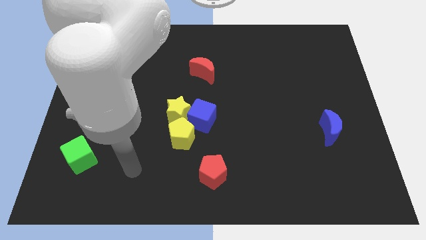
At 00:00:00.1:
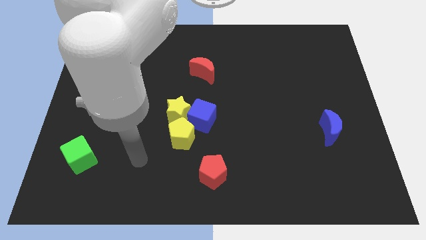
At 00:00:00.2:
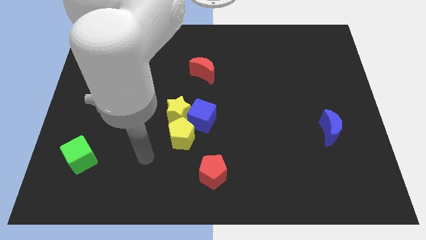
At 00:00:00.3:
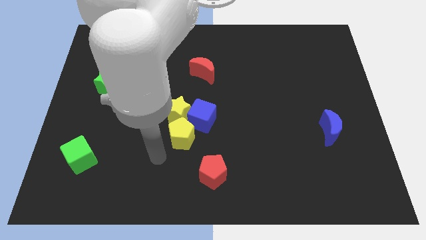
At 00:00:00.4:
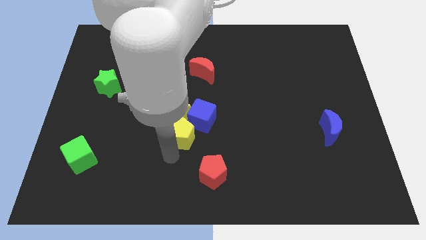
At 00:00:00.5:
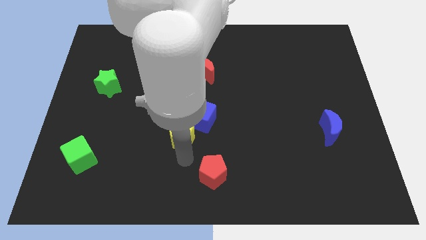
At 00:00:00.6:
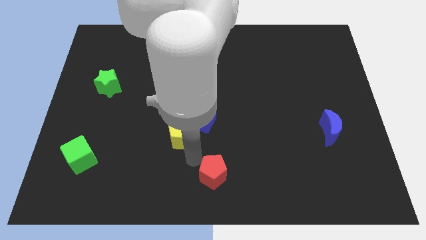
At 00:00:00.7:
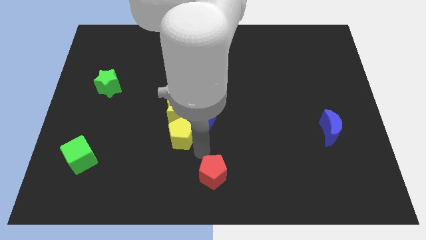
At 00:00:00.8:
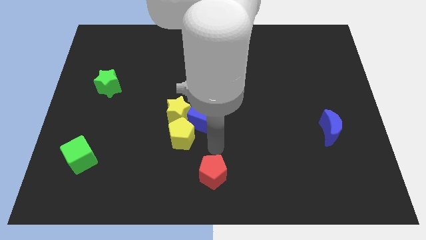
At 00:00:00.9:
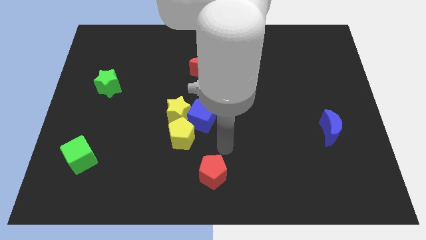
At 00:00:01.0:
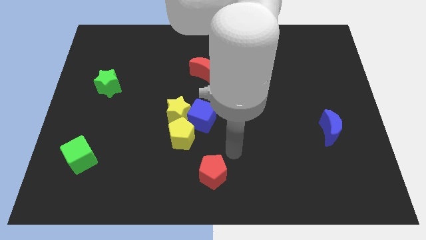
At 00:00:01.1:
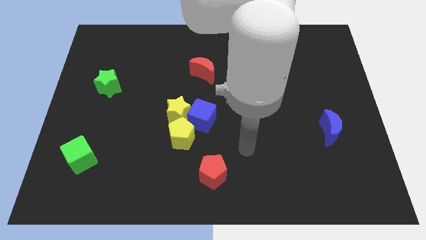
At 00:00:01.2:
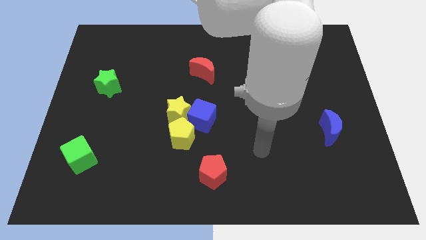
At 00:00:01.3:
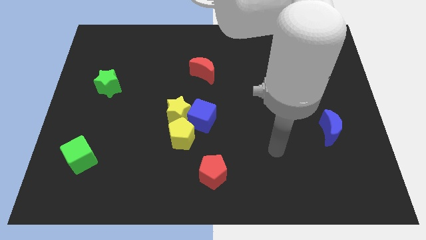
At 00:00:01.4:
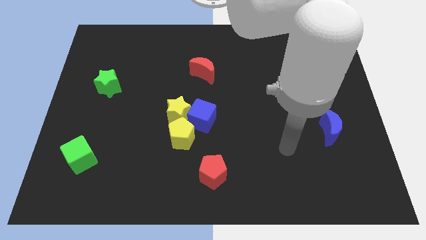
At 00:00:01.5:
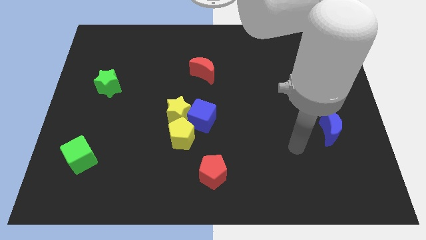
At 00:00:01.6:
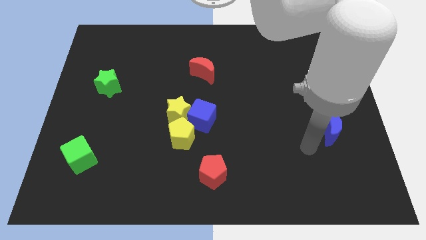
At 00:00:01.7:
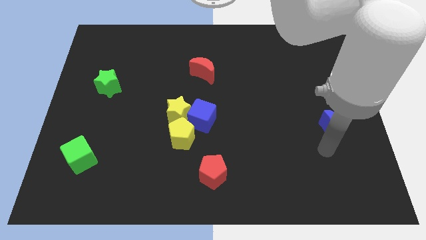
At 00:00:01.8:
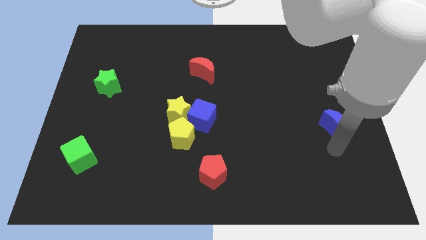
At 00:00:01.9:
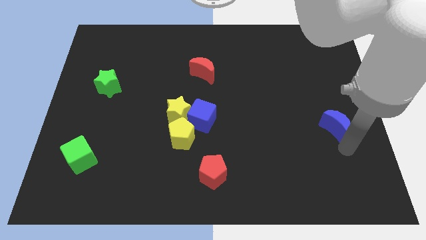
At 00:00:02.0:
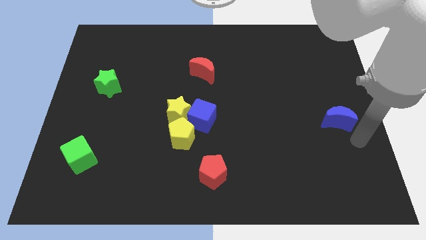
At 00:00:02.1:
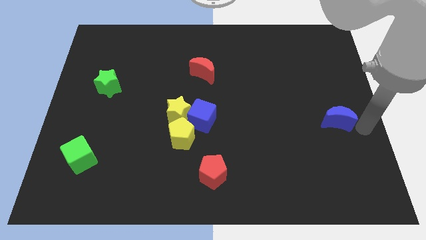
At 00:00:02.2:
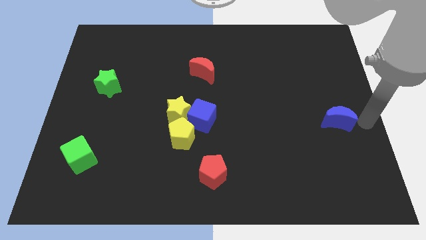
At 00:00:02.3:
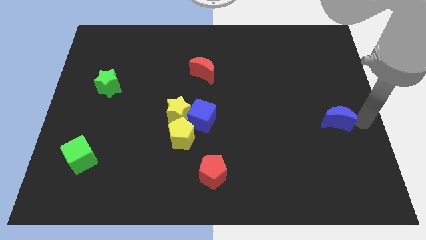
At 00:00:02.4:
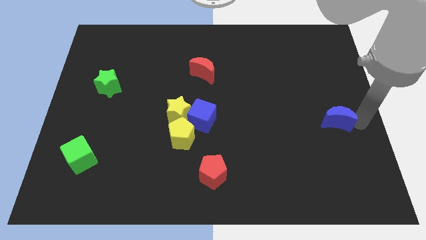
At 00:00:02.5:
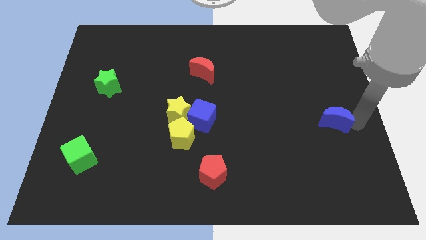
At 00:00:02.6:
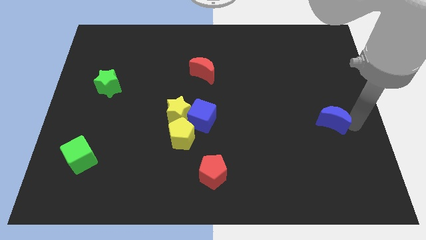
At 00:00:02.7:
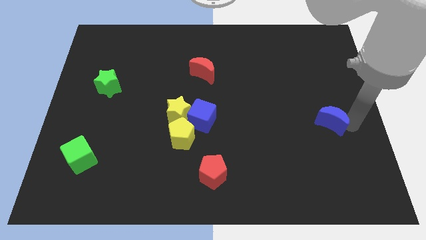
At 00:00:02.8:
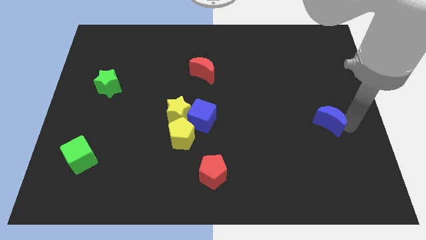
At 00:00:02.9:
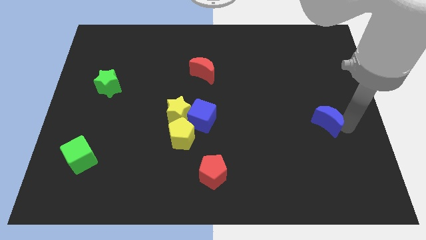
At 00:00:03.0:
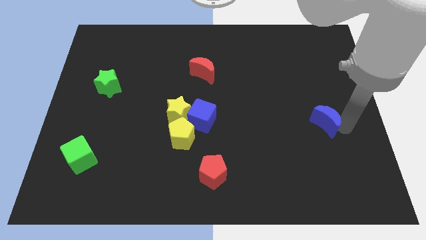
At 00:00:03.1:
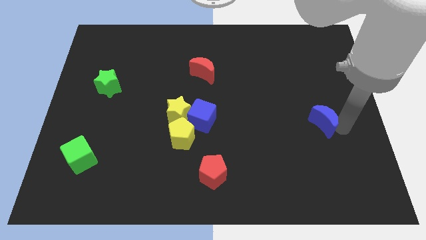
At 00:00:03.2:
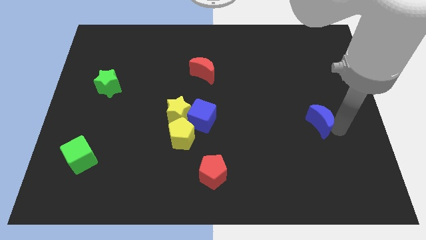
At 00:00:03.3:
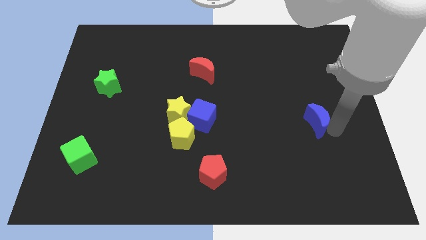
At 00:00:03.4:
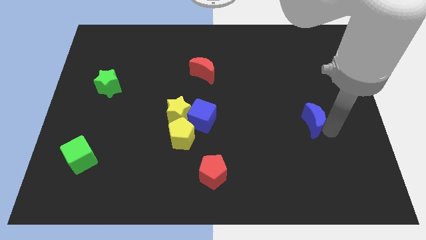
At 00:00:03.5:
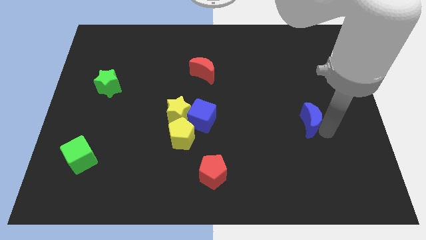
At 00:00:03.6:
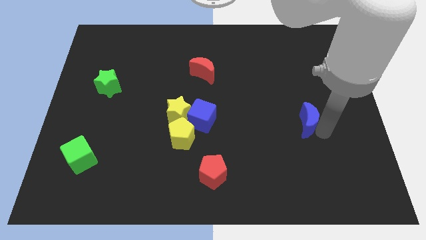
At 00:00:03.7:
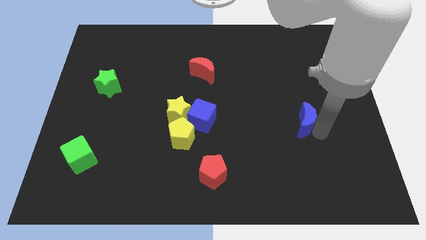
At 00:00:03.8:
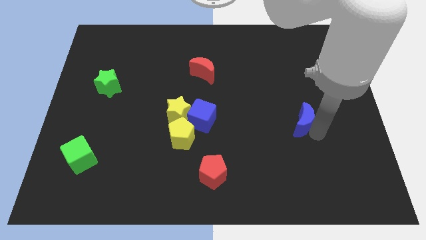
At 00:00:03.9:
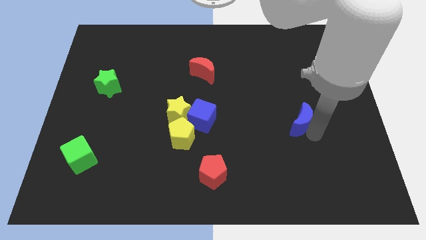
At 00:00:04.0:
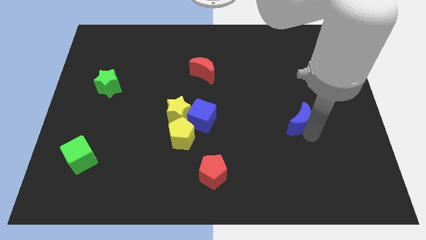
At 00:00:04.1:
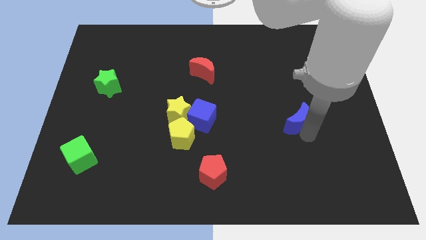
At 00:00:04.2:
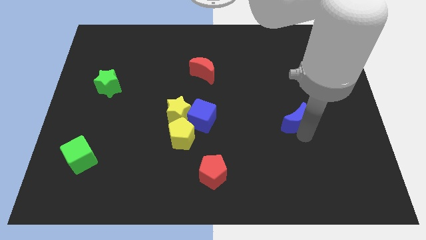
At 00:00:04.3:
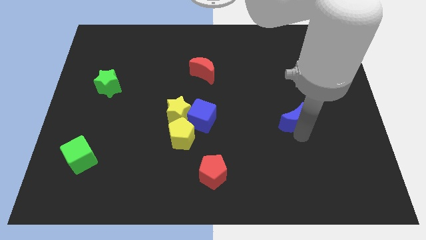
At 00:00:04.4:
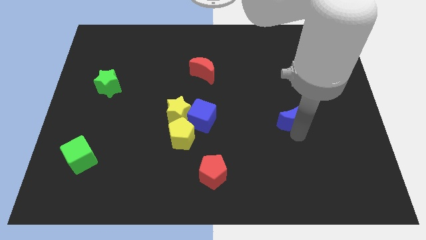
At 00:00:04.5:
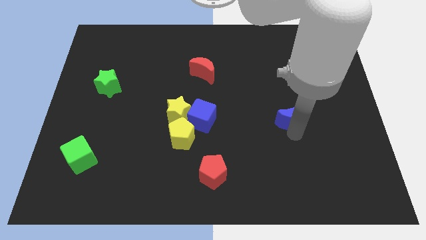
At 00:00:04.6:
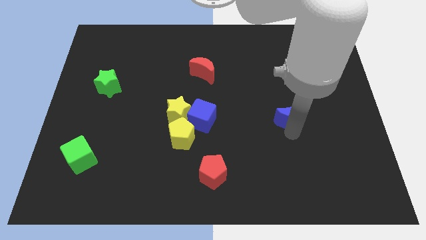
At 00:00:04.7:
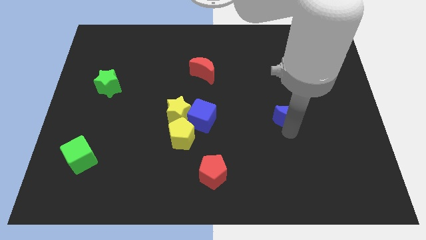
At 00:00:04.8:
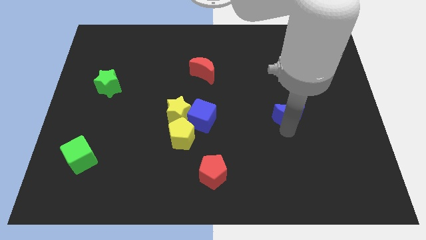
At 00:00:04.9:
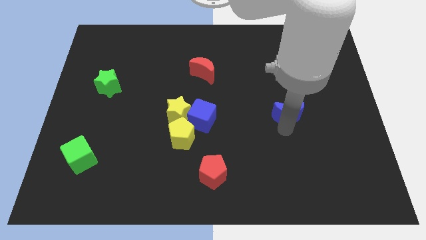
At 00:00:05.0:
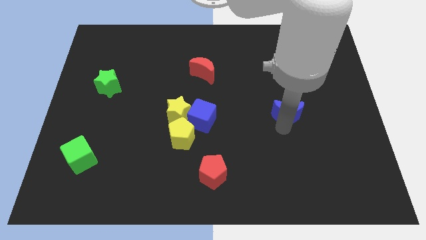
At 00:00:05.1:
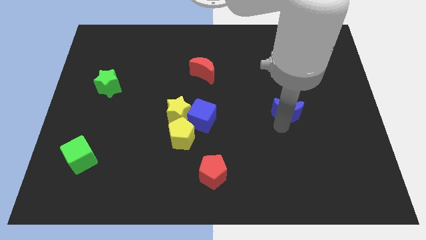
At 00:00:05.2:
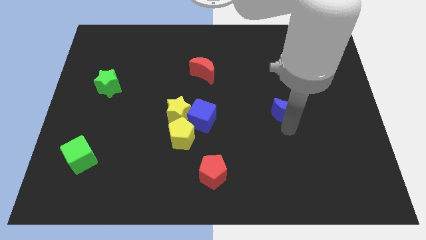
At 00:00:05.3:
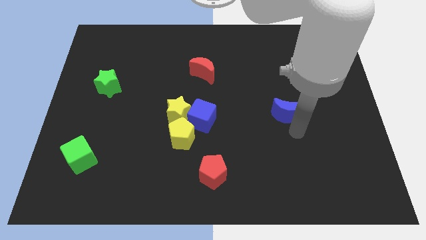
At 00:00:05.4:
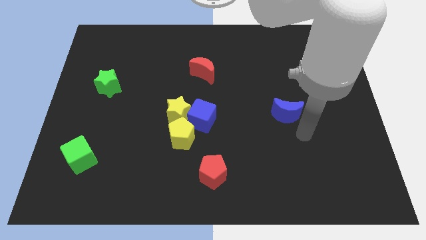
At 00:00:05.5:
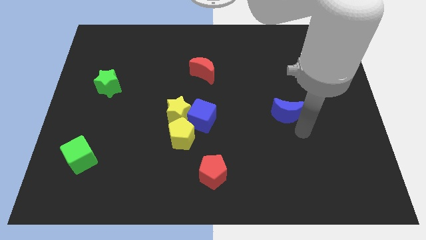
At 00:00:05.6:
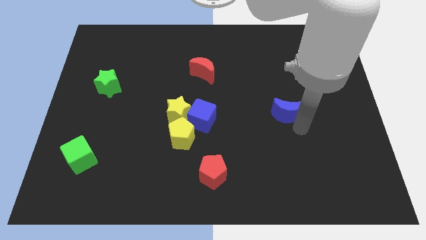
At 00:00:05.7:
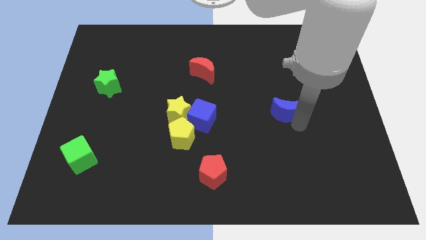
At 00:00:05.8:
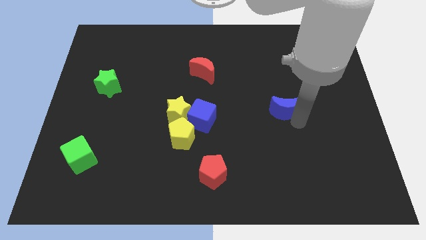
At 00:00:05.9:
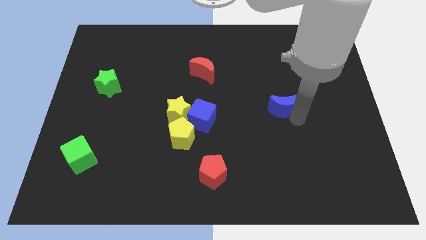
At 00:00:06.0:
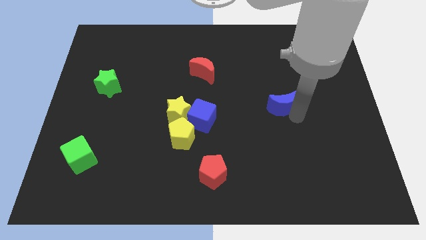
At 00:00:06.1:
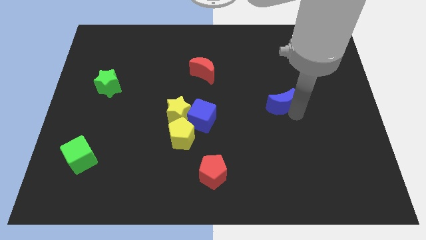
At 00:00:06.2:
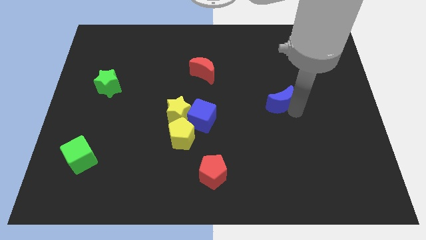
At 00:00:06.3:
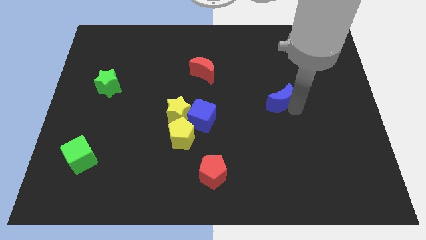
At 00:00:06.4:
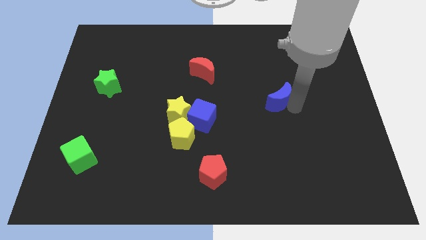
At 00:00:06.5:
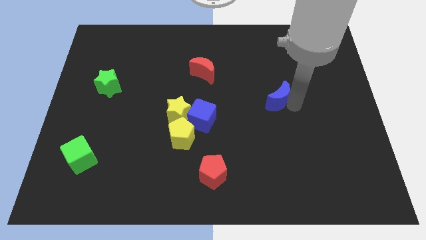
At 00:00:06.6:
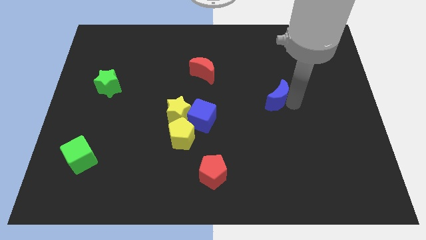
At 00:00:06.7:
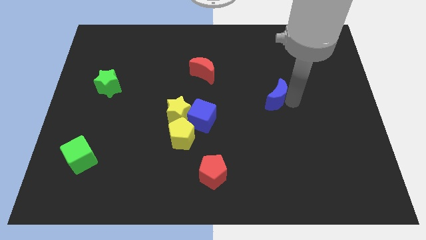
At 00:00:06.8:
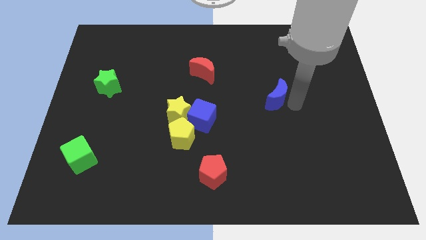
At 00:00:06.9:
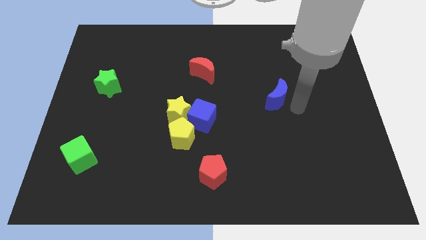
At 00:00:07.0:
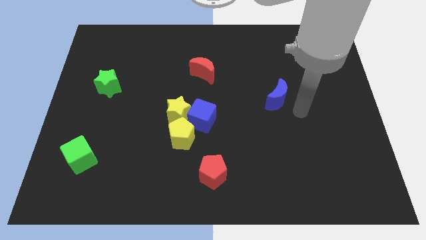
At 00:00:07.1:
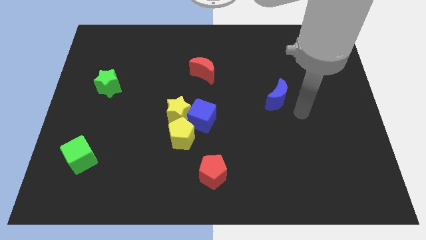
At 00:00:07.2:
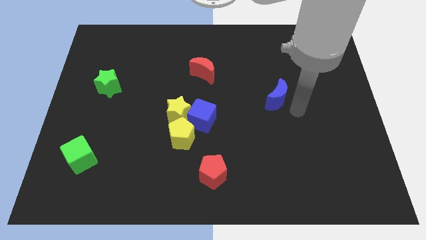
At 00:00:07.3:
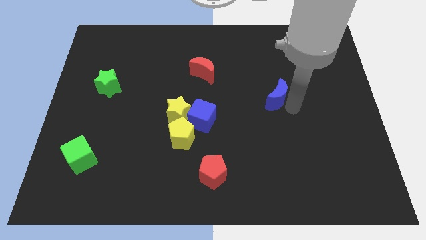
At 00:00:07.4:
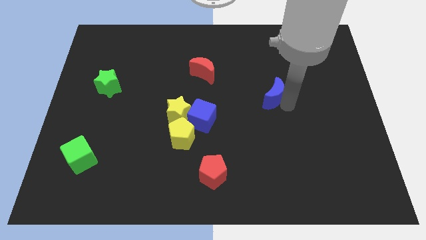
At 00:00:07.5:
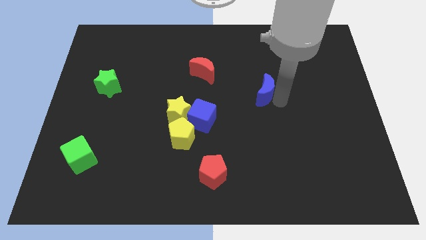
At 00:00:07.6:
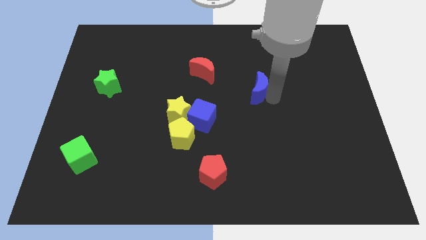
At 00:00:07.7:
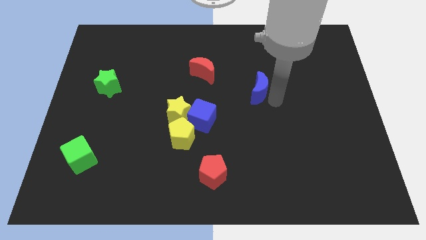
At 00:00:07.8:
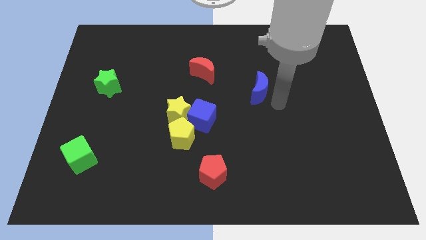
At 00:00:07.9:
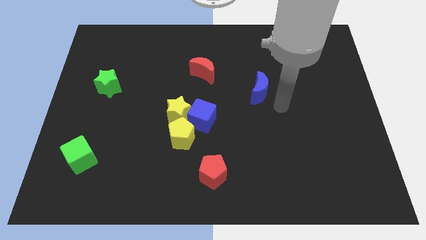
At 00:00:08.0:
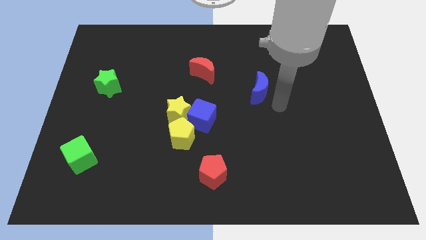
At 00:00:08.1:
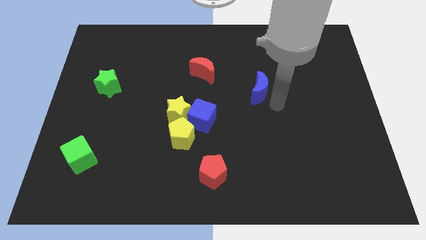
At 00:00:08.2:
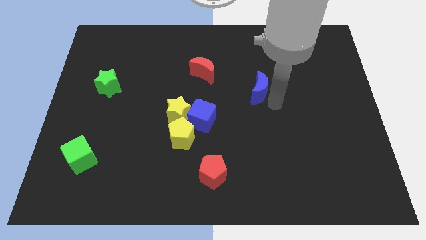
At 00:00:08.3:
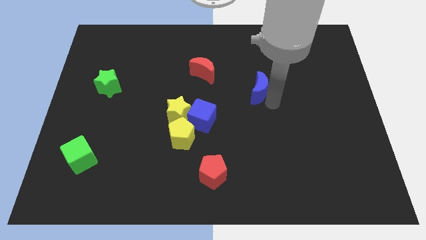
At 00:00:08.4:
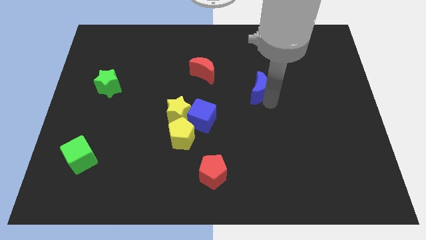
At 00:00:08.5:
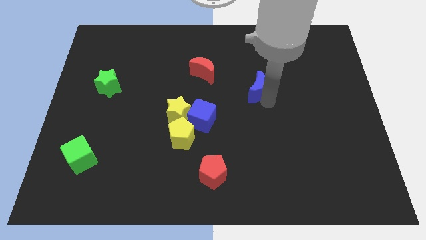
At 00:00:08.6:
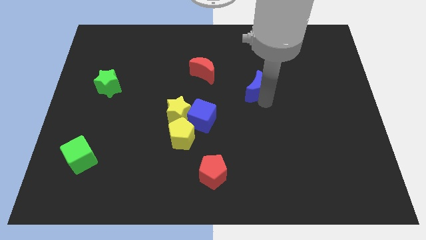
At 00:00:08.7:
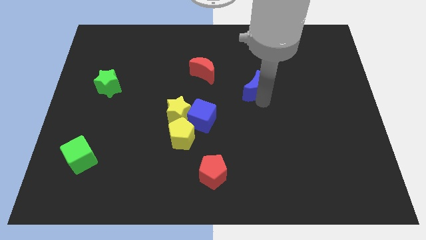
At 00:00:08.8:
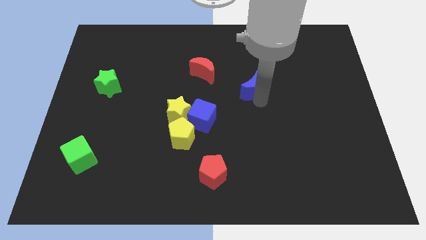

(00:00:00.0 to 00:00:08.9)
move the blue moon up and to the left diagonally
